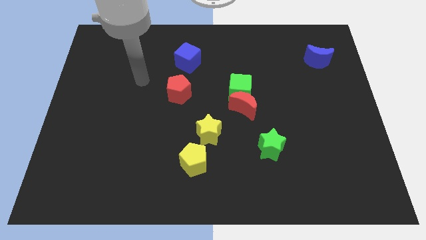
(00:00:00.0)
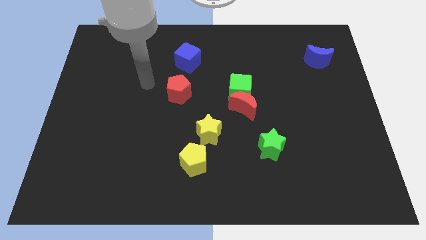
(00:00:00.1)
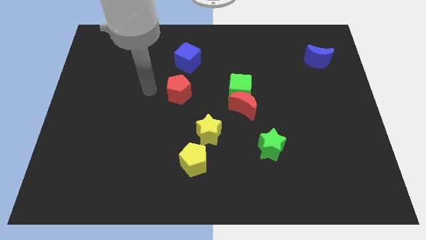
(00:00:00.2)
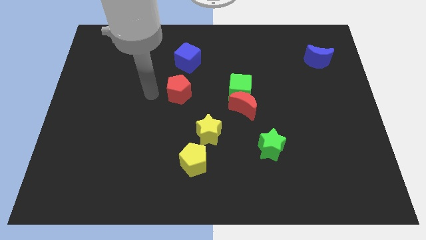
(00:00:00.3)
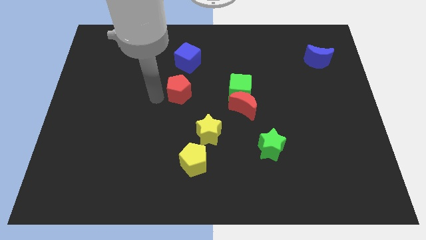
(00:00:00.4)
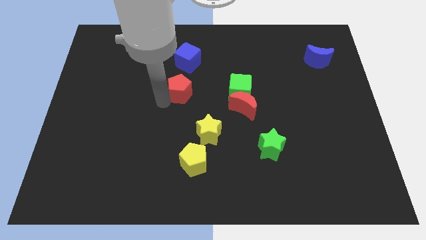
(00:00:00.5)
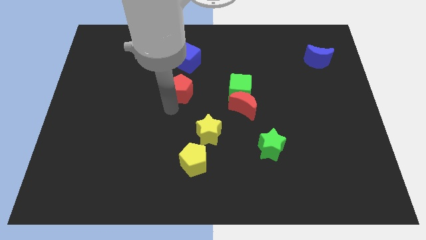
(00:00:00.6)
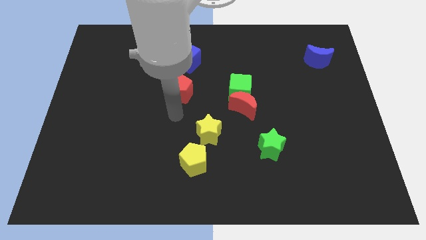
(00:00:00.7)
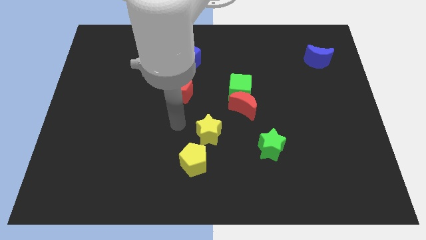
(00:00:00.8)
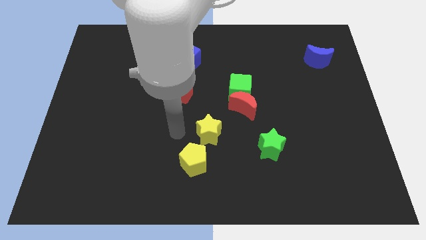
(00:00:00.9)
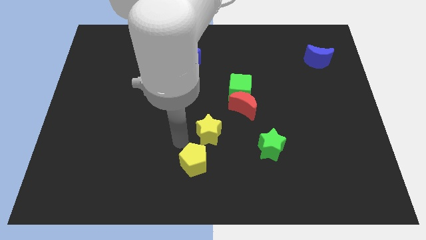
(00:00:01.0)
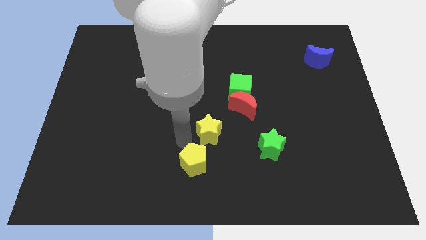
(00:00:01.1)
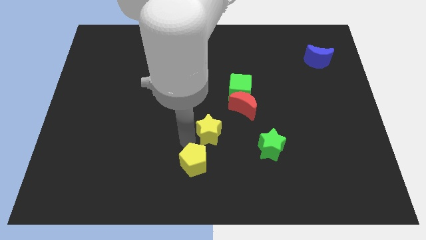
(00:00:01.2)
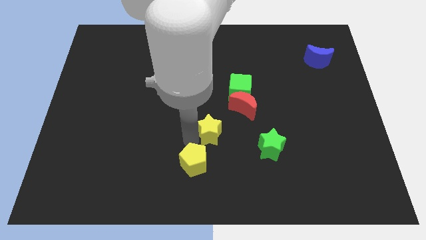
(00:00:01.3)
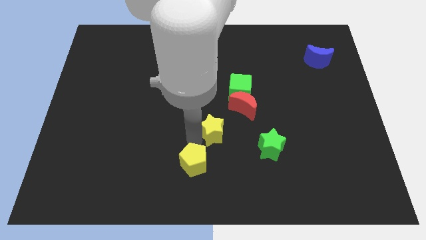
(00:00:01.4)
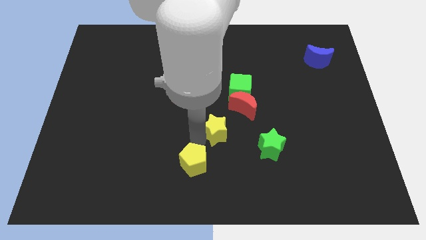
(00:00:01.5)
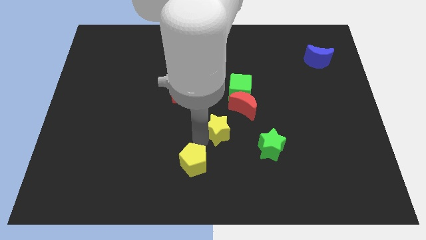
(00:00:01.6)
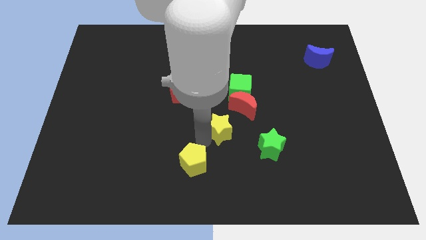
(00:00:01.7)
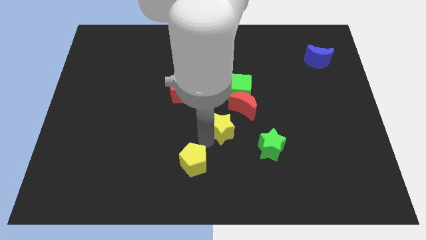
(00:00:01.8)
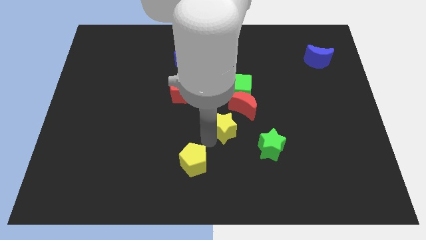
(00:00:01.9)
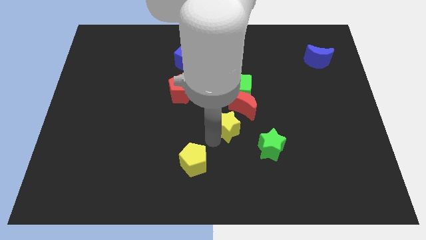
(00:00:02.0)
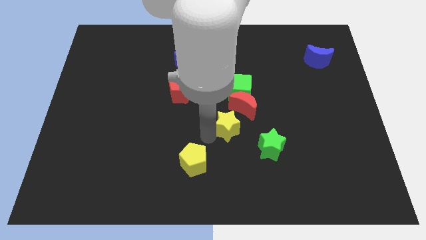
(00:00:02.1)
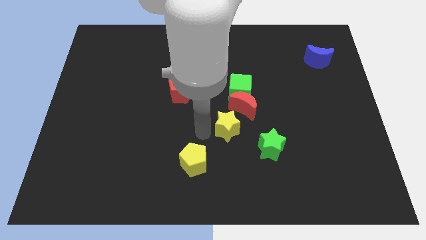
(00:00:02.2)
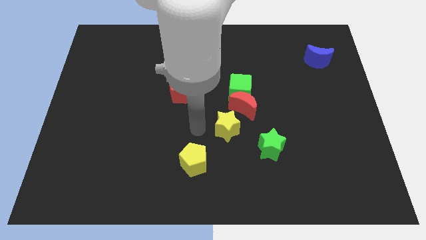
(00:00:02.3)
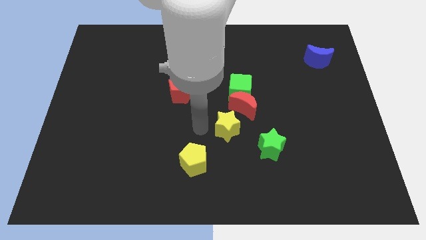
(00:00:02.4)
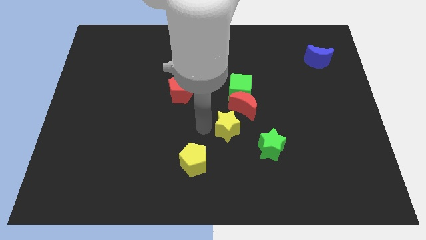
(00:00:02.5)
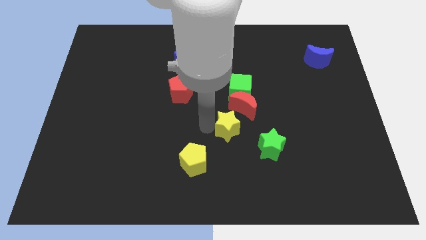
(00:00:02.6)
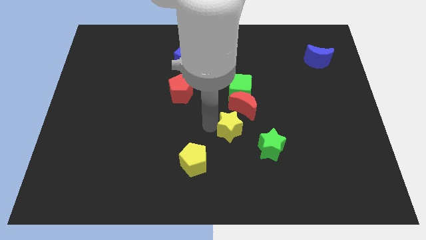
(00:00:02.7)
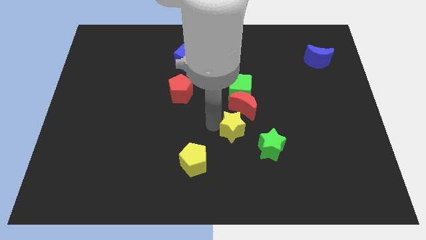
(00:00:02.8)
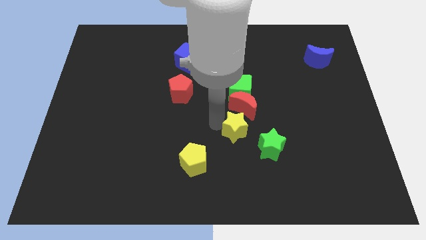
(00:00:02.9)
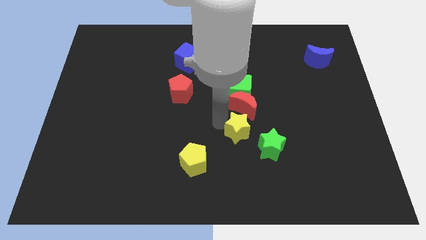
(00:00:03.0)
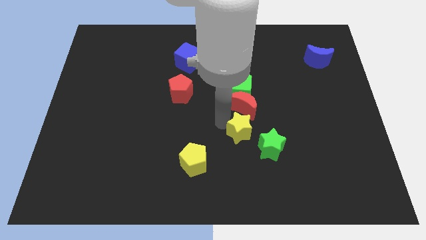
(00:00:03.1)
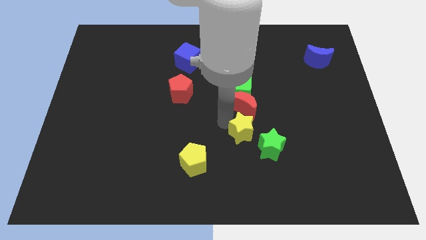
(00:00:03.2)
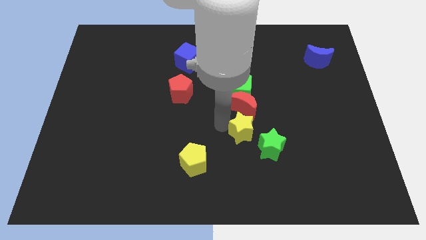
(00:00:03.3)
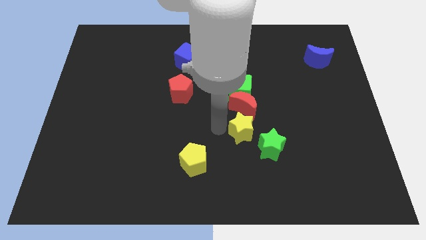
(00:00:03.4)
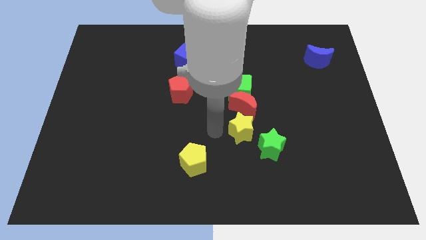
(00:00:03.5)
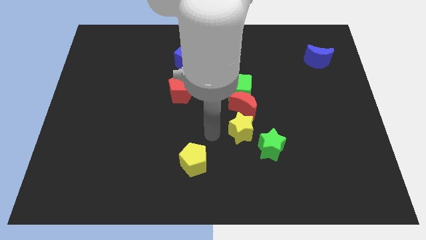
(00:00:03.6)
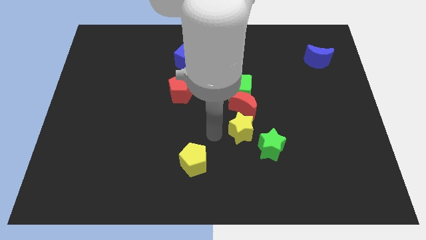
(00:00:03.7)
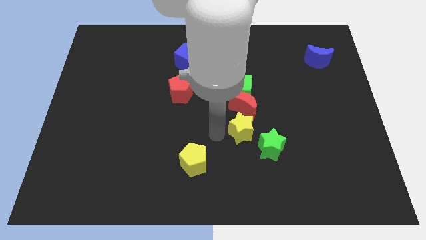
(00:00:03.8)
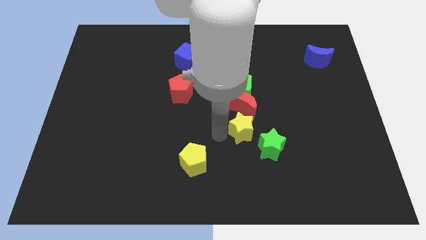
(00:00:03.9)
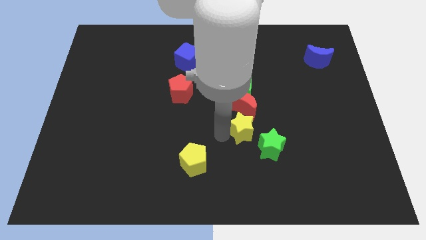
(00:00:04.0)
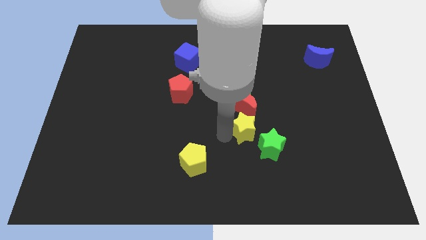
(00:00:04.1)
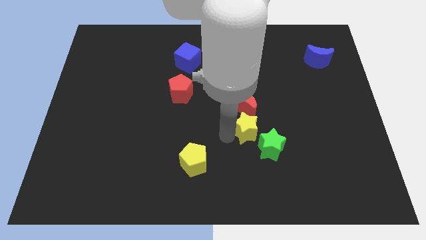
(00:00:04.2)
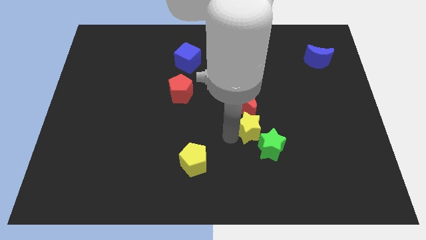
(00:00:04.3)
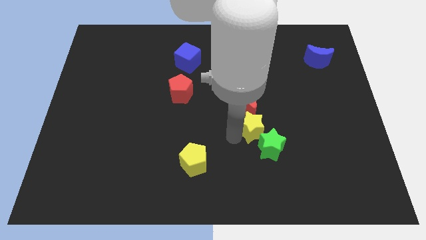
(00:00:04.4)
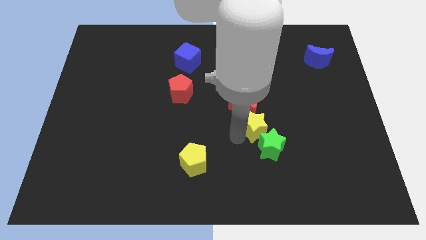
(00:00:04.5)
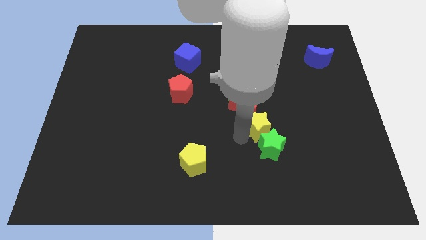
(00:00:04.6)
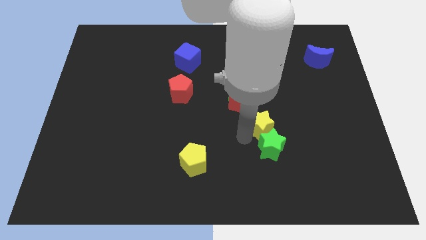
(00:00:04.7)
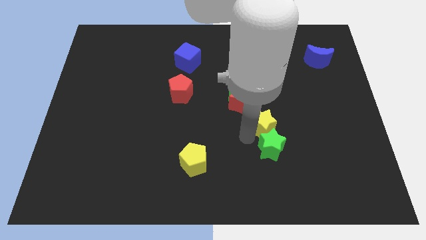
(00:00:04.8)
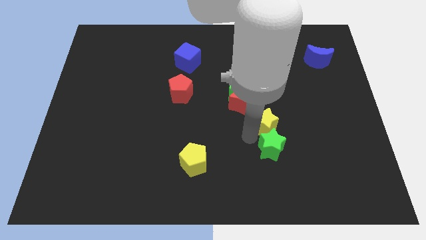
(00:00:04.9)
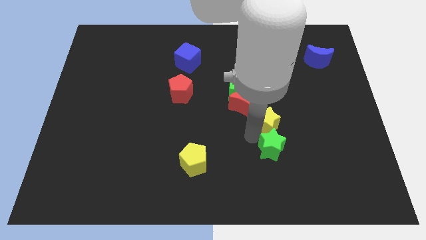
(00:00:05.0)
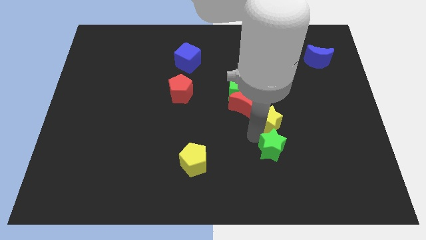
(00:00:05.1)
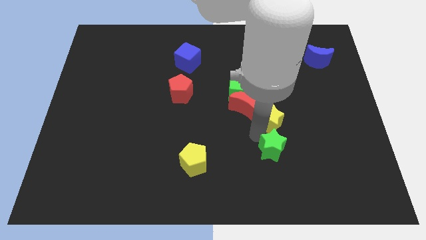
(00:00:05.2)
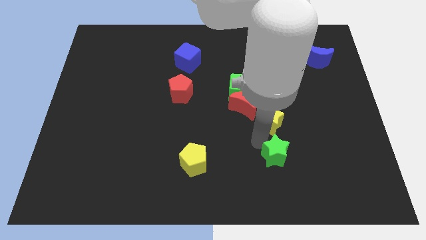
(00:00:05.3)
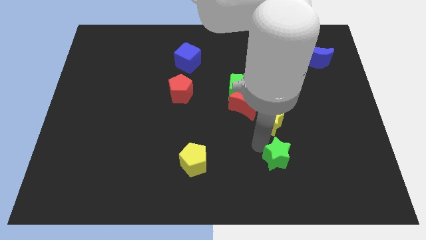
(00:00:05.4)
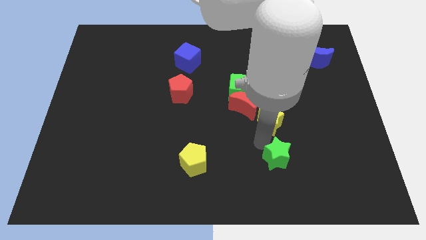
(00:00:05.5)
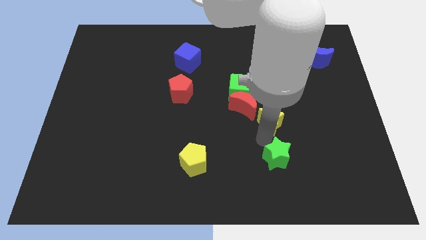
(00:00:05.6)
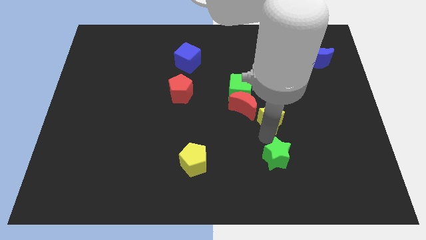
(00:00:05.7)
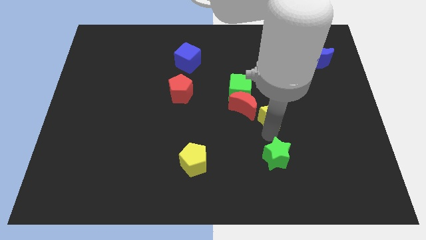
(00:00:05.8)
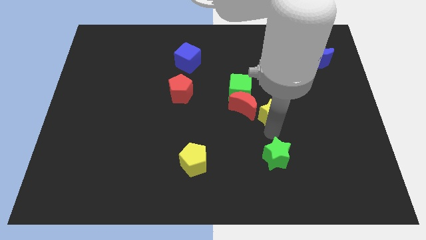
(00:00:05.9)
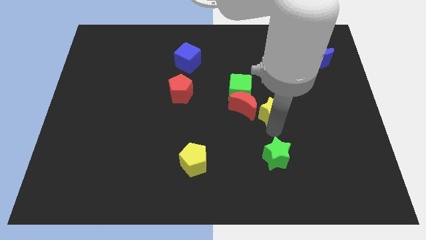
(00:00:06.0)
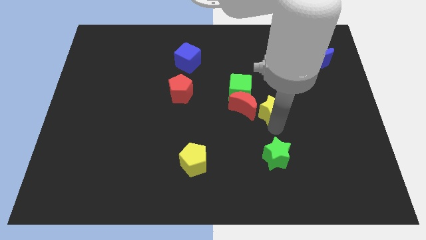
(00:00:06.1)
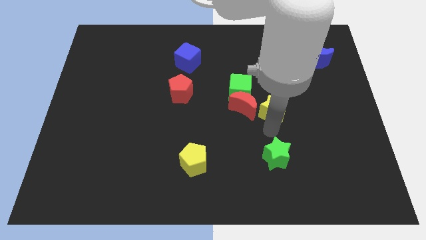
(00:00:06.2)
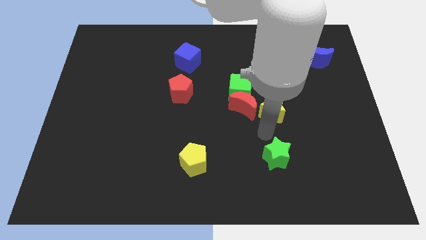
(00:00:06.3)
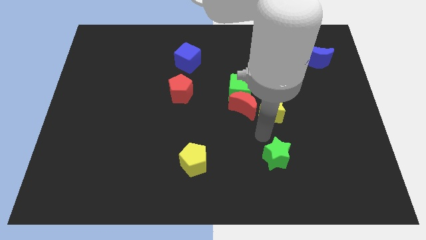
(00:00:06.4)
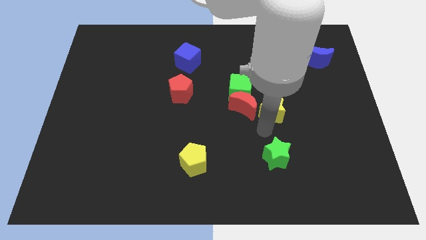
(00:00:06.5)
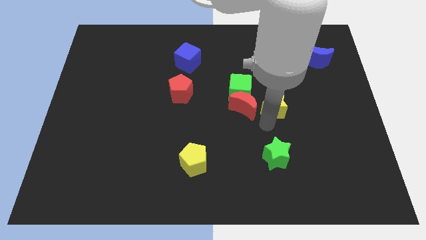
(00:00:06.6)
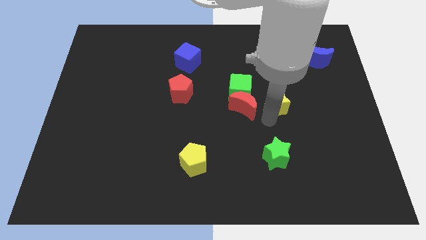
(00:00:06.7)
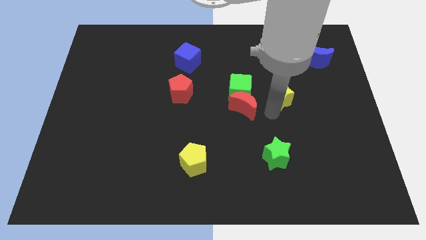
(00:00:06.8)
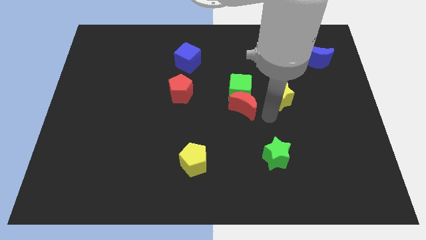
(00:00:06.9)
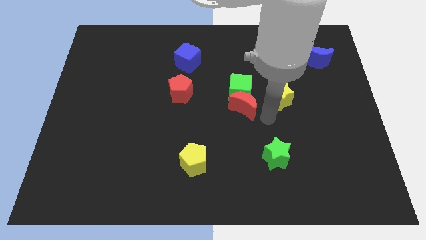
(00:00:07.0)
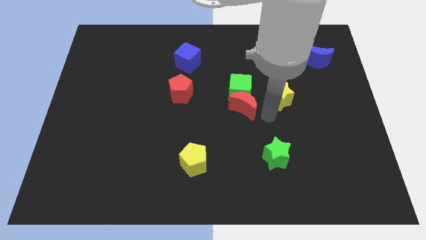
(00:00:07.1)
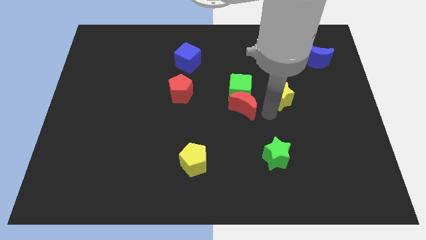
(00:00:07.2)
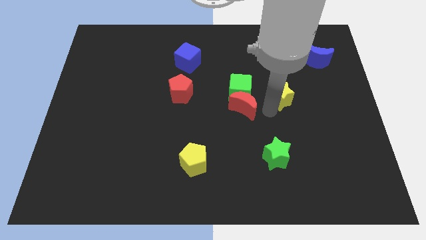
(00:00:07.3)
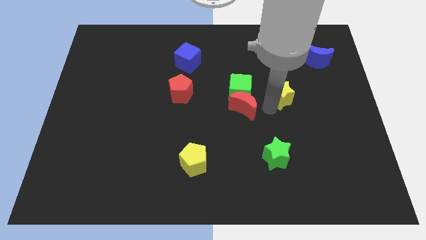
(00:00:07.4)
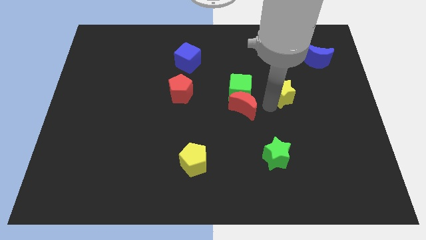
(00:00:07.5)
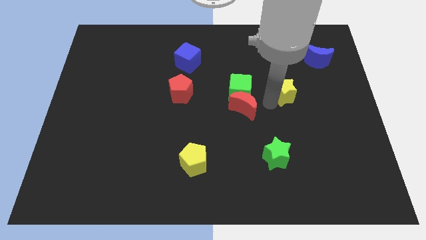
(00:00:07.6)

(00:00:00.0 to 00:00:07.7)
move the yellow star up and then to the right
